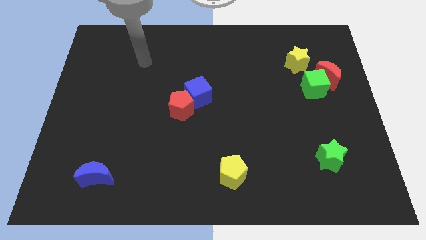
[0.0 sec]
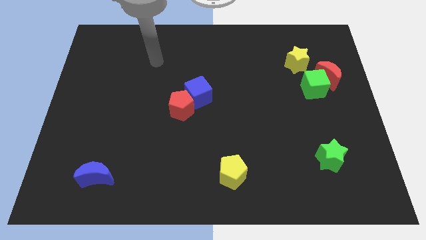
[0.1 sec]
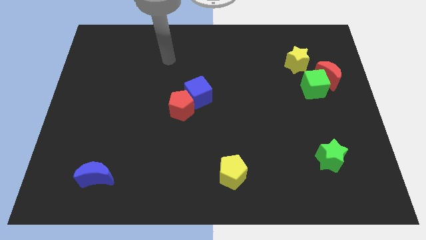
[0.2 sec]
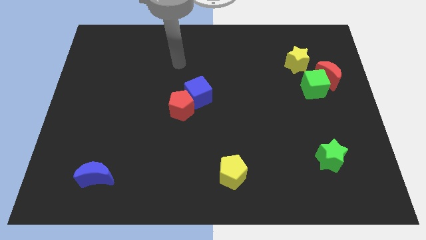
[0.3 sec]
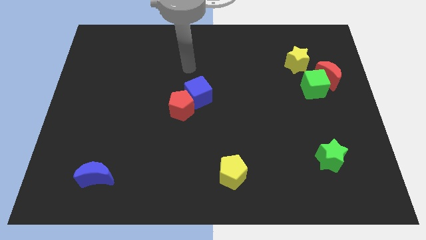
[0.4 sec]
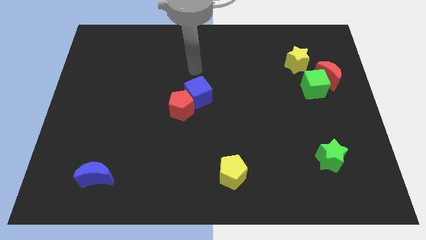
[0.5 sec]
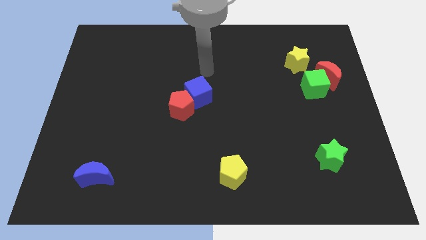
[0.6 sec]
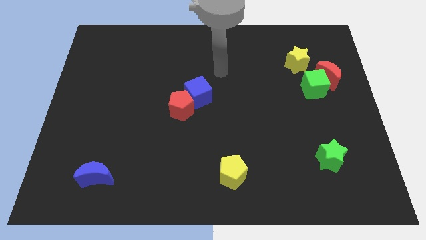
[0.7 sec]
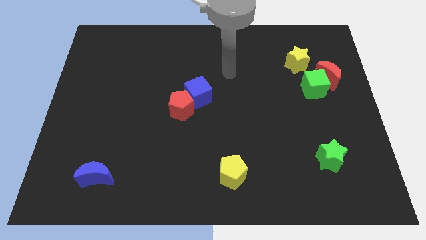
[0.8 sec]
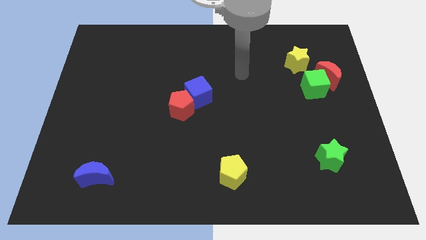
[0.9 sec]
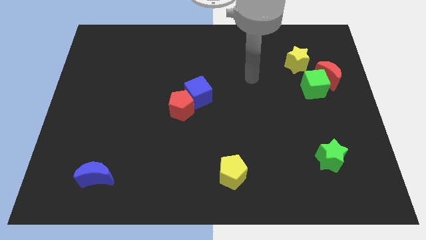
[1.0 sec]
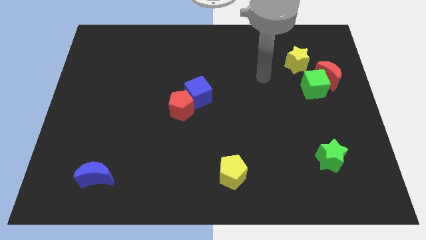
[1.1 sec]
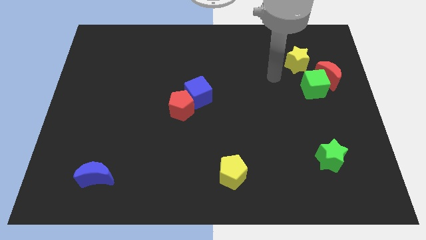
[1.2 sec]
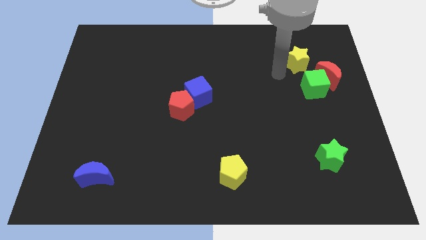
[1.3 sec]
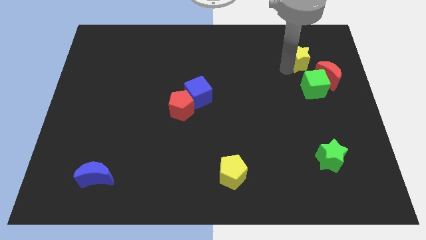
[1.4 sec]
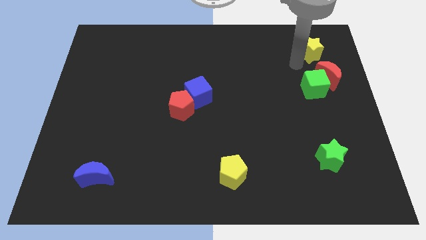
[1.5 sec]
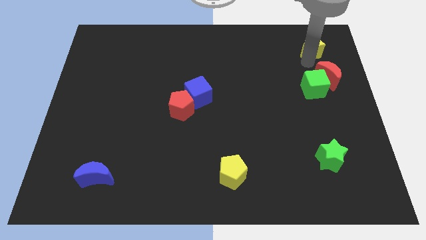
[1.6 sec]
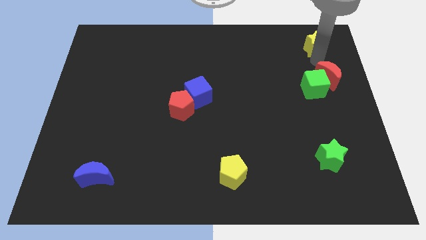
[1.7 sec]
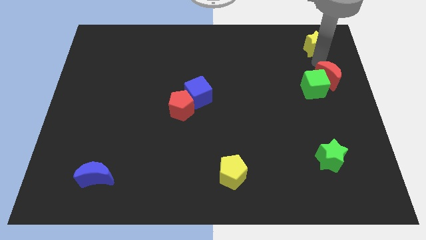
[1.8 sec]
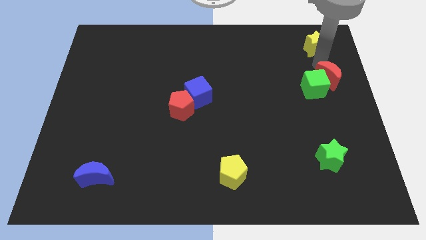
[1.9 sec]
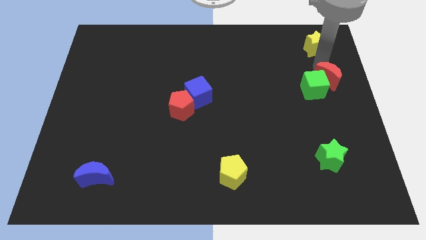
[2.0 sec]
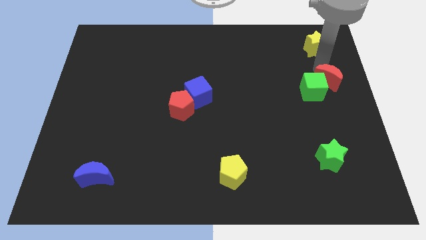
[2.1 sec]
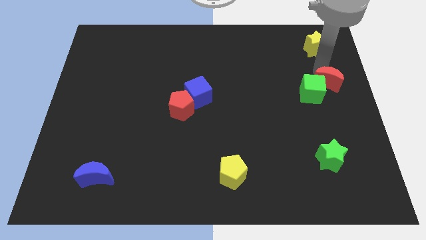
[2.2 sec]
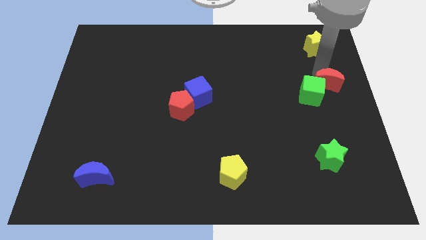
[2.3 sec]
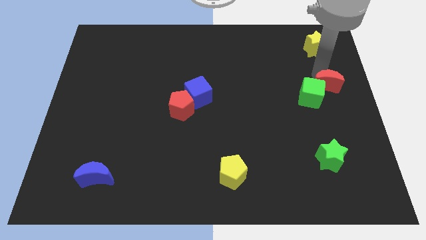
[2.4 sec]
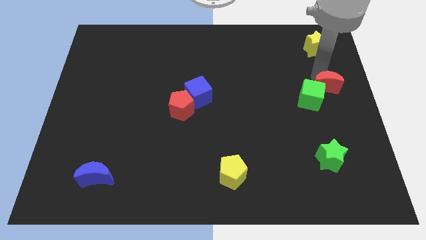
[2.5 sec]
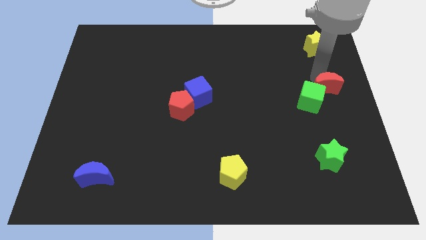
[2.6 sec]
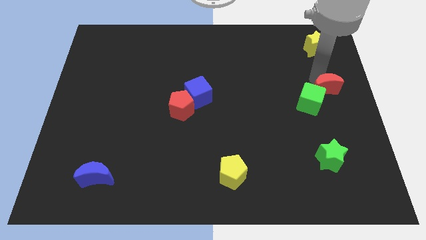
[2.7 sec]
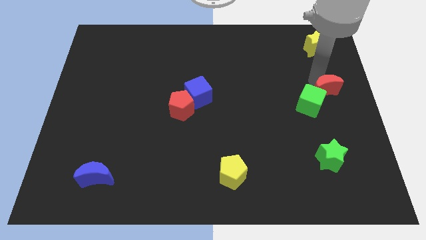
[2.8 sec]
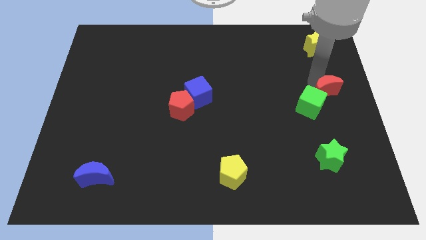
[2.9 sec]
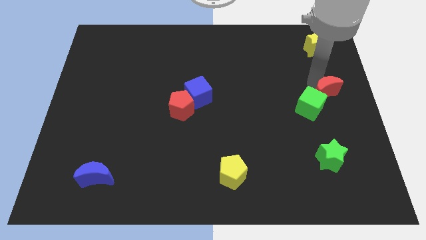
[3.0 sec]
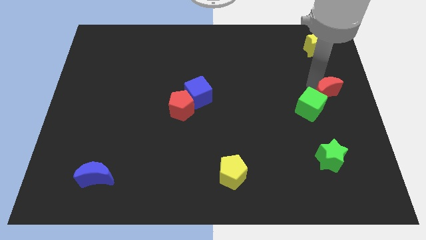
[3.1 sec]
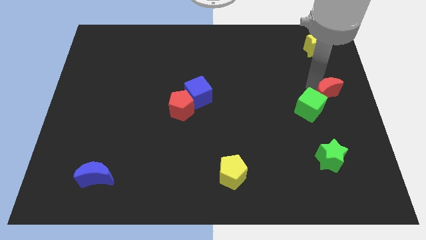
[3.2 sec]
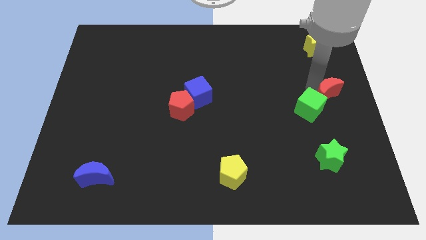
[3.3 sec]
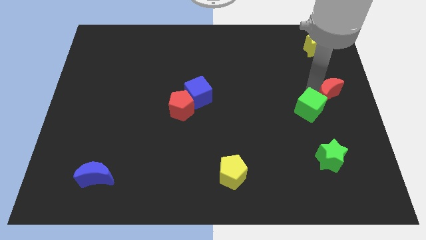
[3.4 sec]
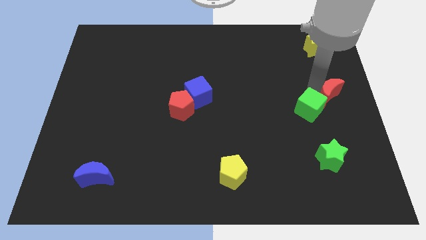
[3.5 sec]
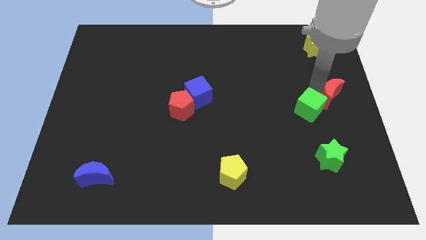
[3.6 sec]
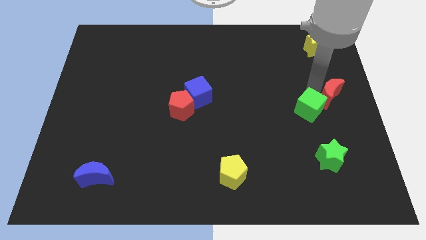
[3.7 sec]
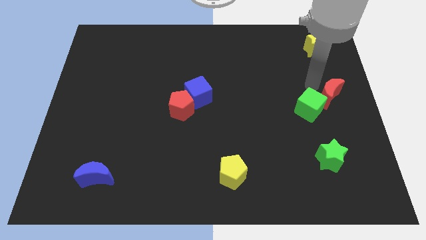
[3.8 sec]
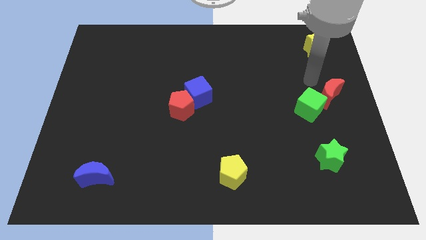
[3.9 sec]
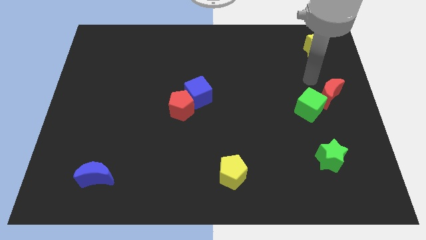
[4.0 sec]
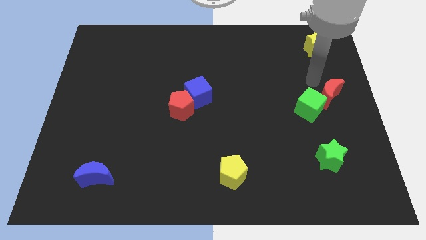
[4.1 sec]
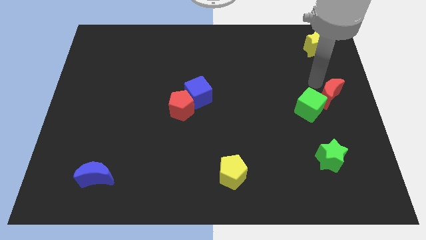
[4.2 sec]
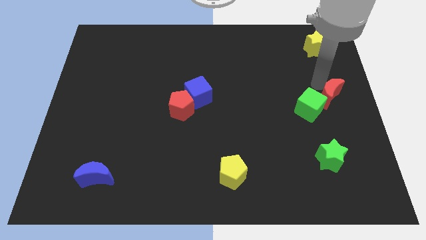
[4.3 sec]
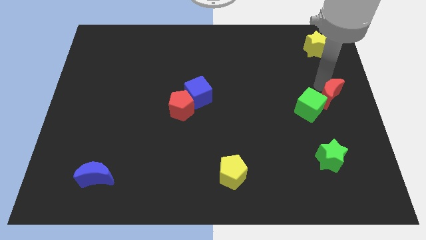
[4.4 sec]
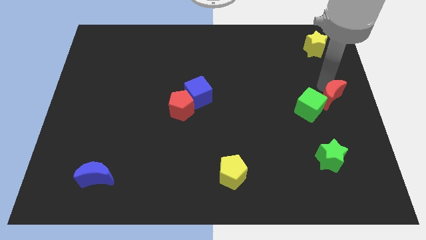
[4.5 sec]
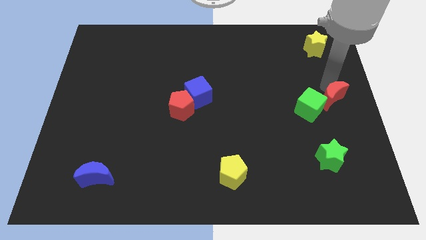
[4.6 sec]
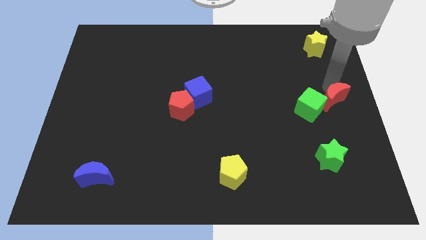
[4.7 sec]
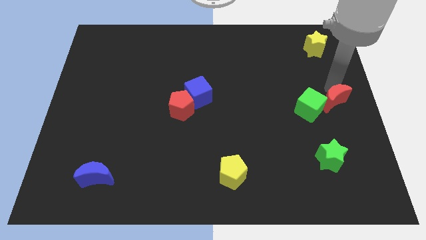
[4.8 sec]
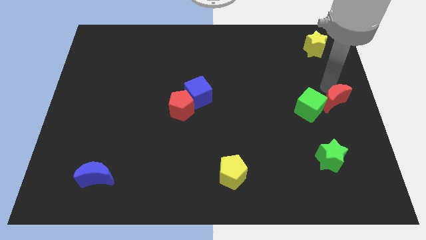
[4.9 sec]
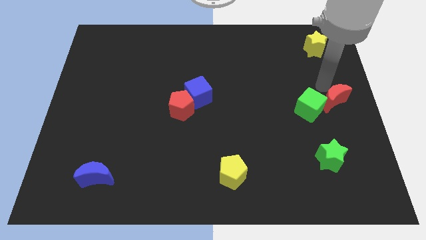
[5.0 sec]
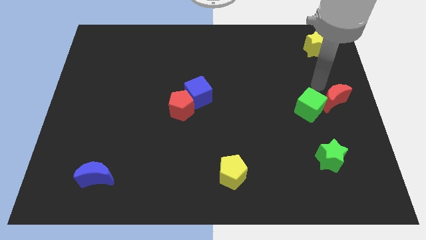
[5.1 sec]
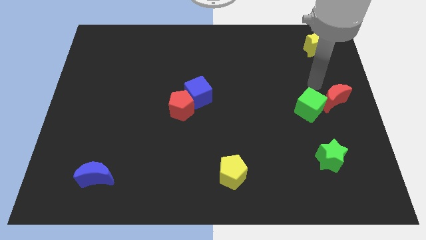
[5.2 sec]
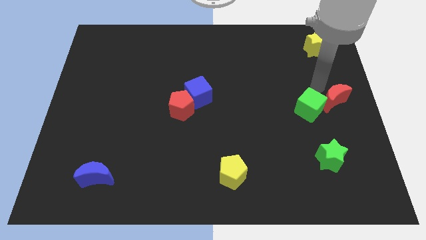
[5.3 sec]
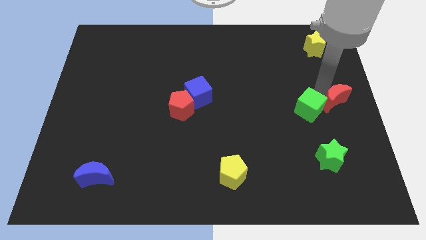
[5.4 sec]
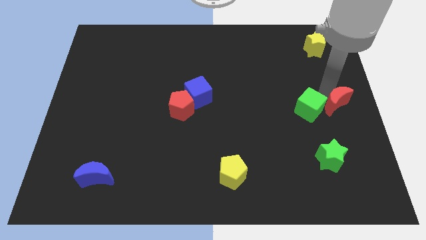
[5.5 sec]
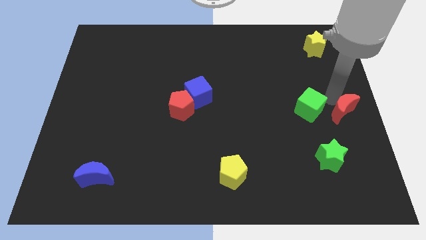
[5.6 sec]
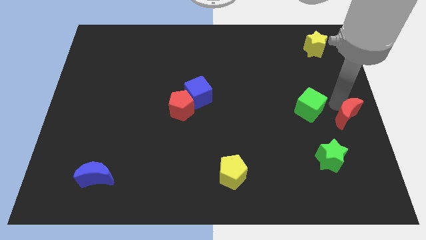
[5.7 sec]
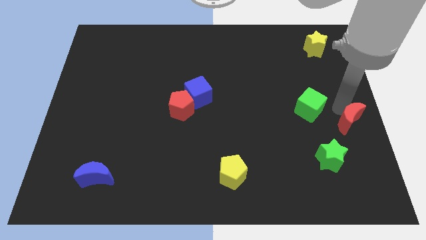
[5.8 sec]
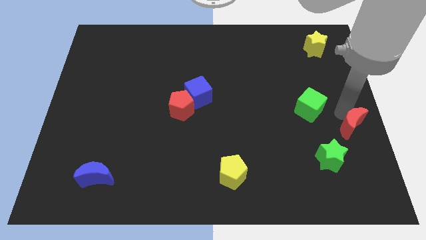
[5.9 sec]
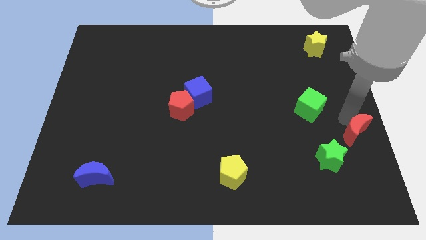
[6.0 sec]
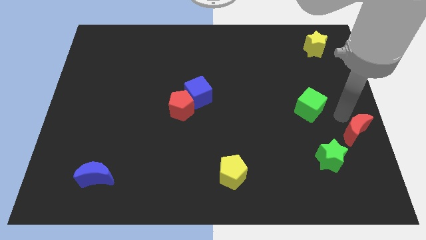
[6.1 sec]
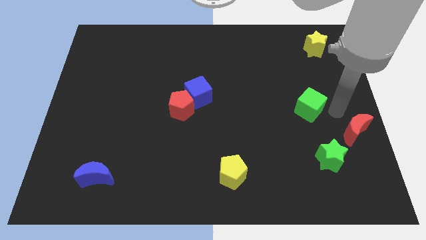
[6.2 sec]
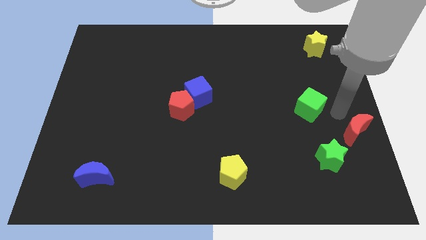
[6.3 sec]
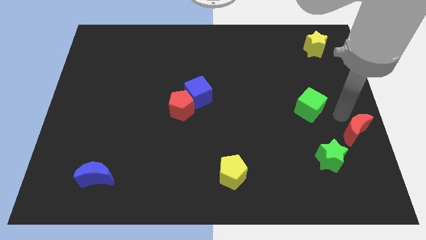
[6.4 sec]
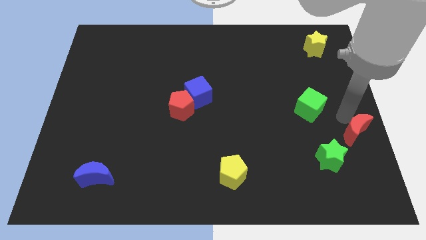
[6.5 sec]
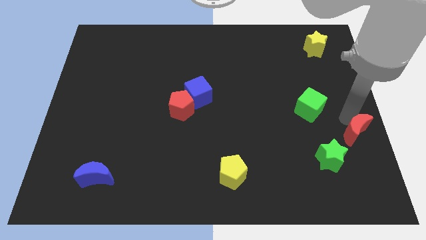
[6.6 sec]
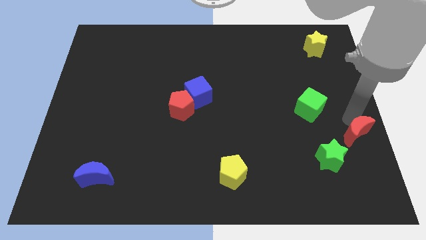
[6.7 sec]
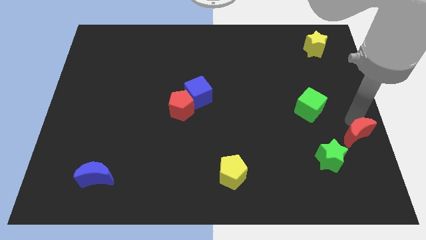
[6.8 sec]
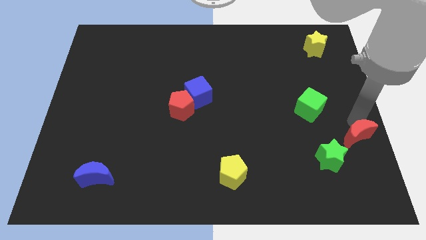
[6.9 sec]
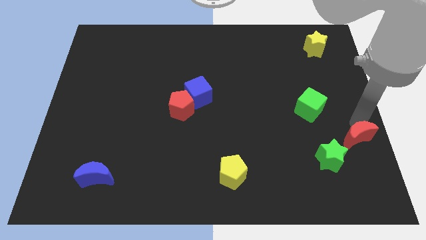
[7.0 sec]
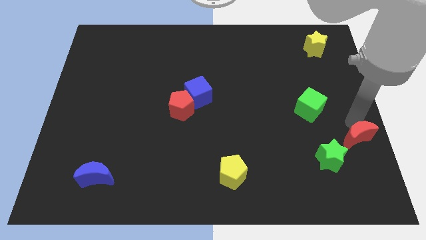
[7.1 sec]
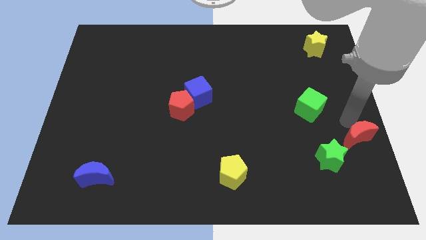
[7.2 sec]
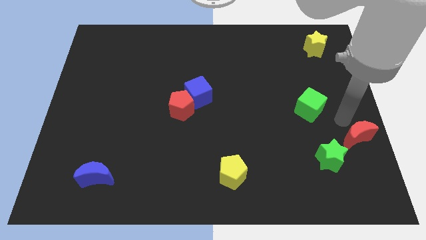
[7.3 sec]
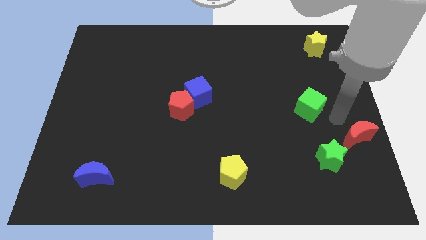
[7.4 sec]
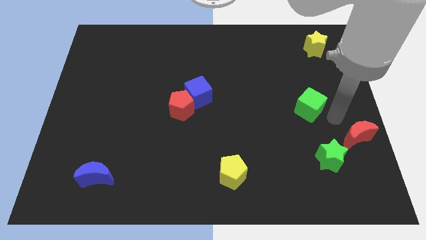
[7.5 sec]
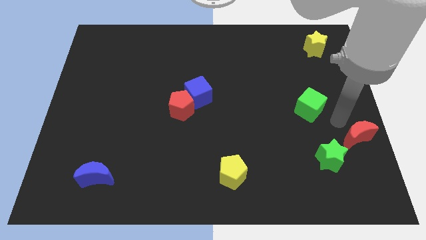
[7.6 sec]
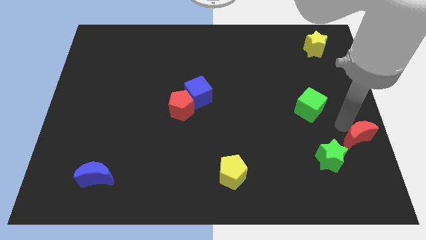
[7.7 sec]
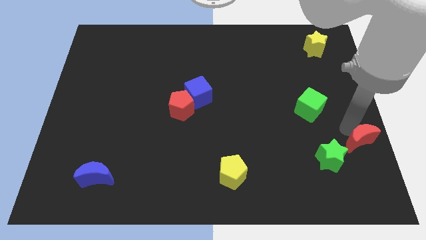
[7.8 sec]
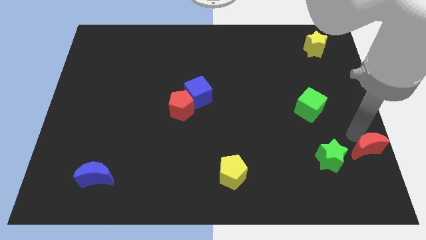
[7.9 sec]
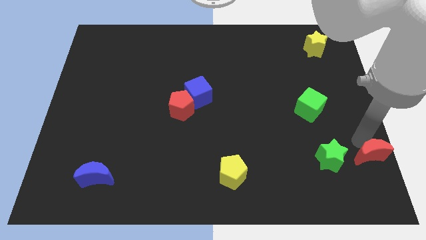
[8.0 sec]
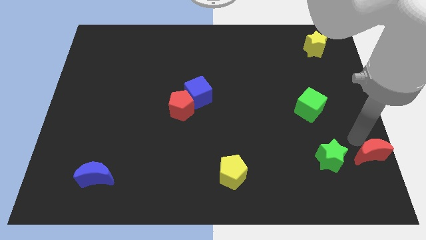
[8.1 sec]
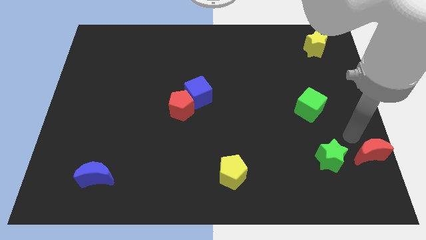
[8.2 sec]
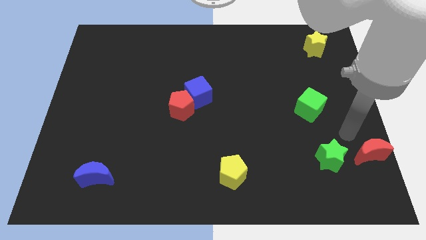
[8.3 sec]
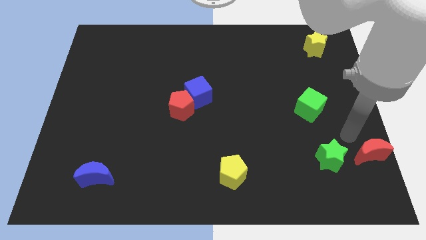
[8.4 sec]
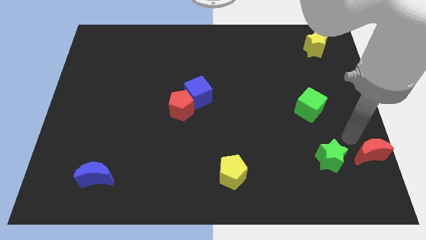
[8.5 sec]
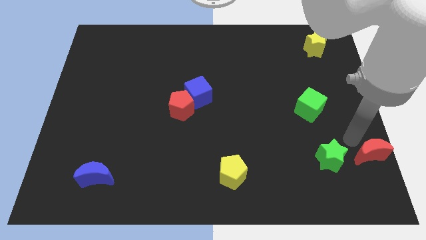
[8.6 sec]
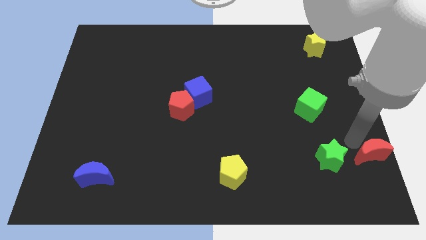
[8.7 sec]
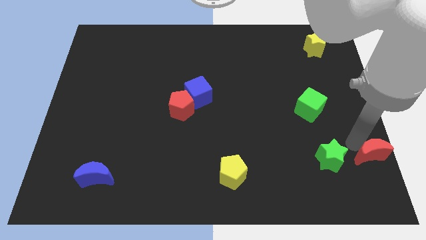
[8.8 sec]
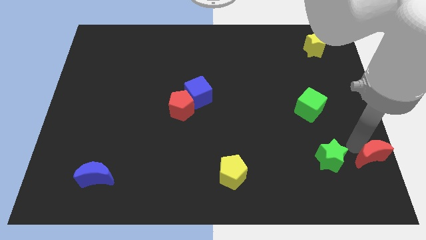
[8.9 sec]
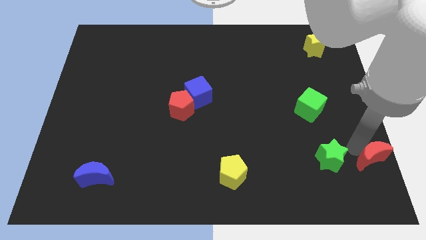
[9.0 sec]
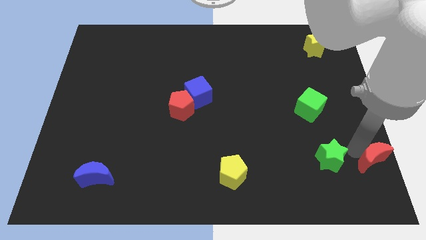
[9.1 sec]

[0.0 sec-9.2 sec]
push the red moon to the bottom right of the board
